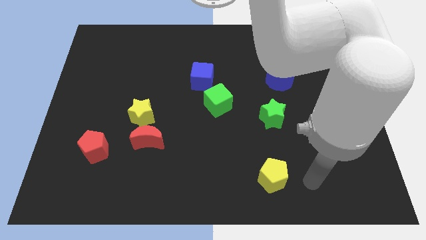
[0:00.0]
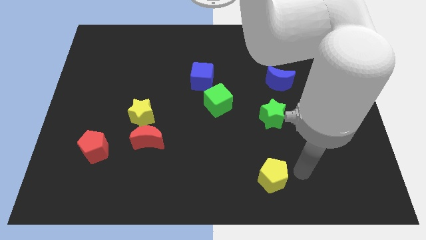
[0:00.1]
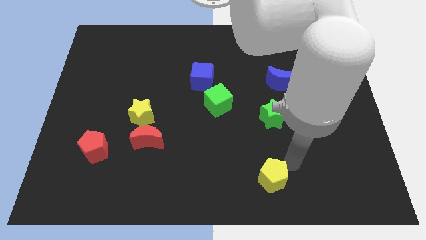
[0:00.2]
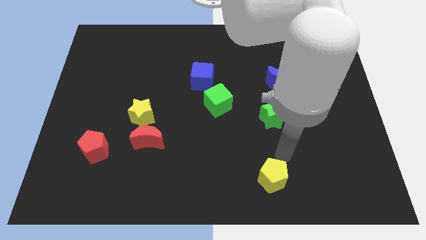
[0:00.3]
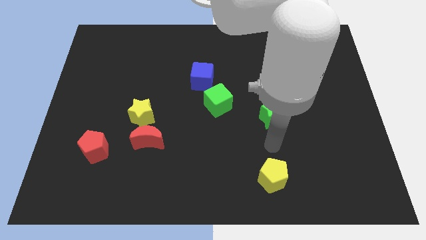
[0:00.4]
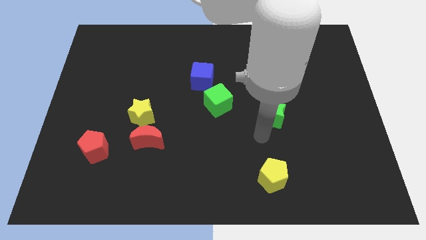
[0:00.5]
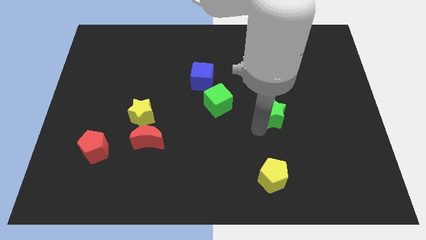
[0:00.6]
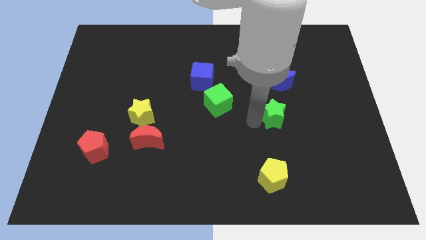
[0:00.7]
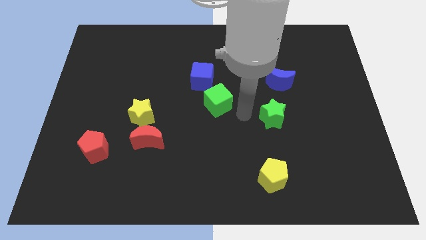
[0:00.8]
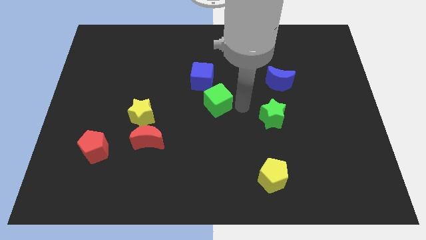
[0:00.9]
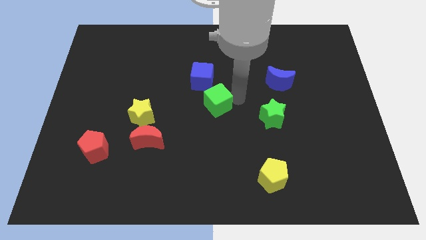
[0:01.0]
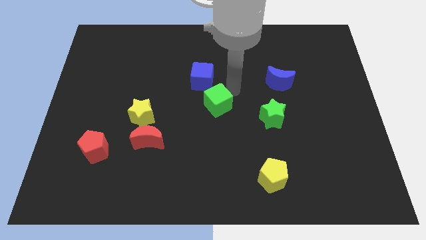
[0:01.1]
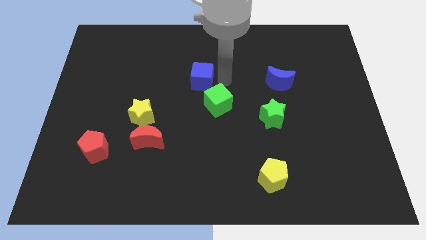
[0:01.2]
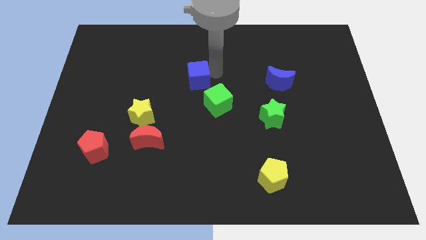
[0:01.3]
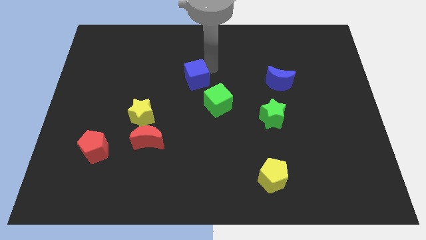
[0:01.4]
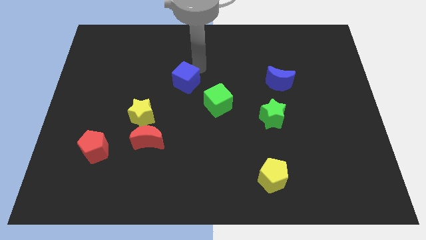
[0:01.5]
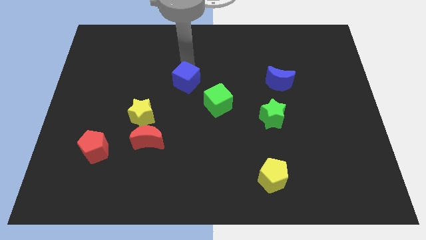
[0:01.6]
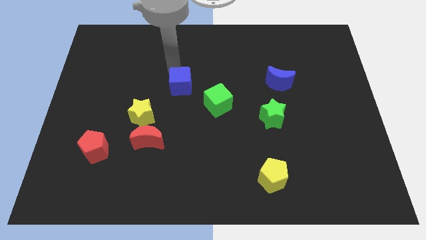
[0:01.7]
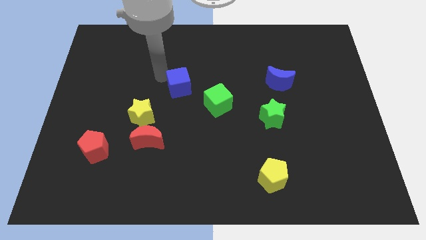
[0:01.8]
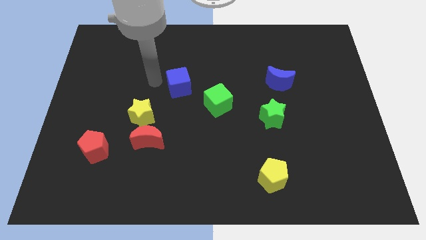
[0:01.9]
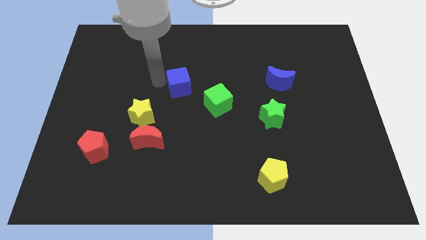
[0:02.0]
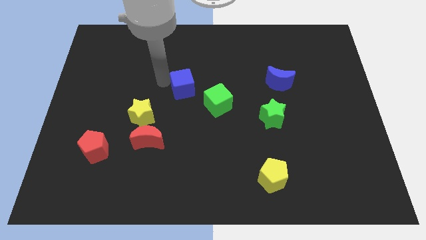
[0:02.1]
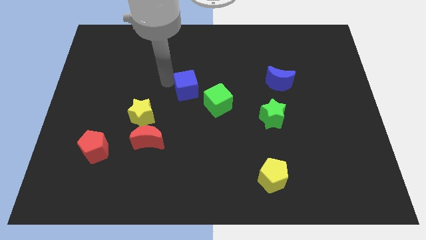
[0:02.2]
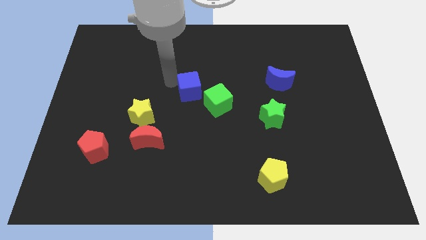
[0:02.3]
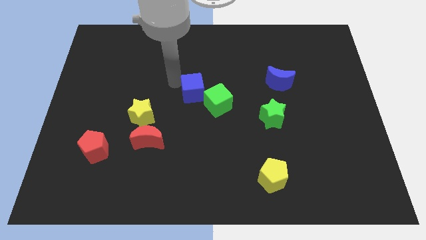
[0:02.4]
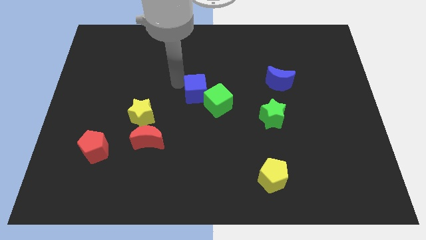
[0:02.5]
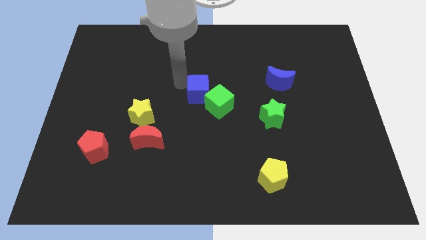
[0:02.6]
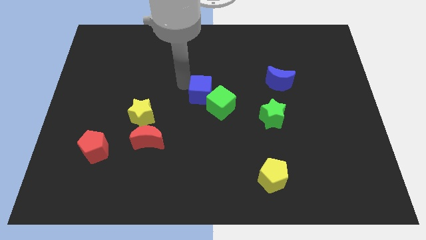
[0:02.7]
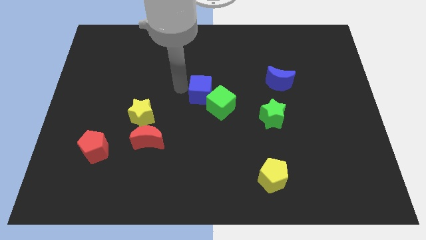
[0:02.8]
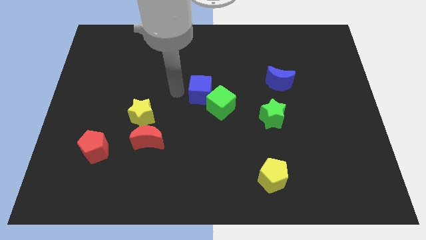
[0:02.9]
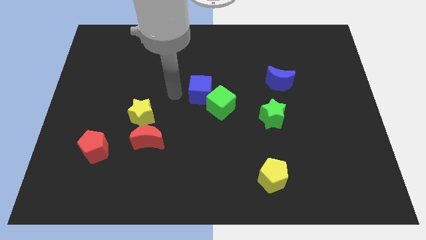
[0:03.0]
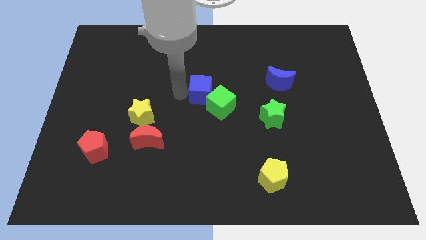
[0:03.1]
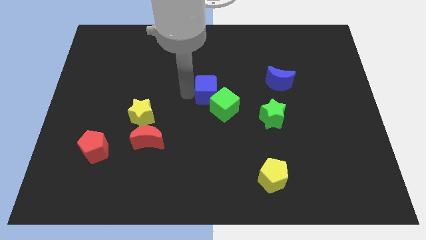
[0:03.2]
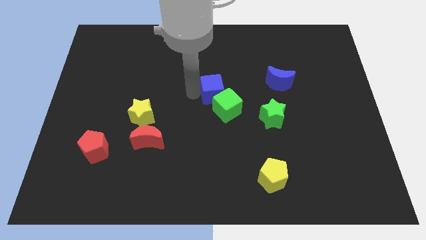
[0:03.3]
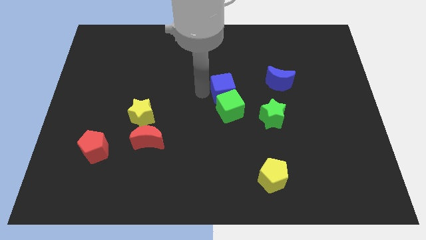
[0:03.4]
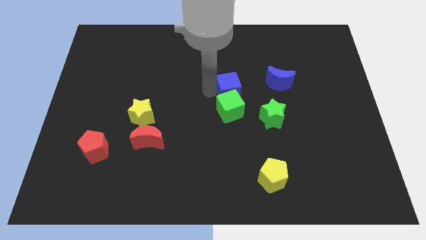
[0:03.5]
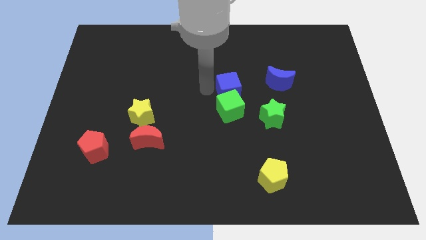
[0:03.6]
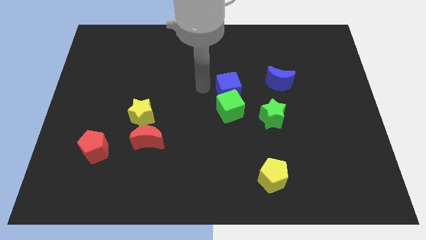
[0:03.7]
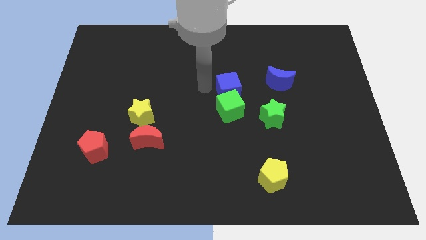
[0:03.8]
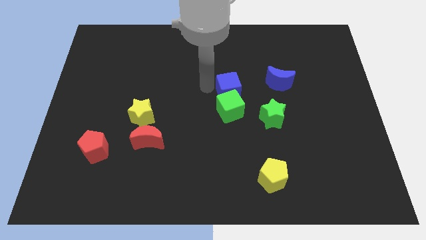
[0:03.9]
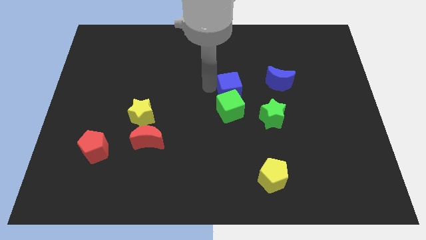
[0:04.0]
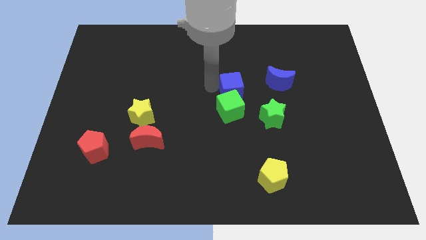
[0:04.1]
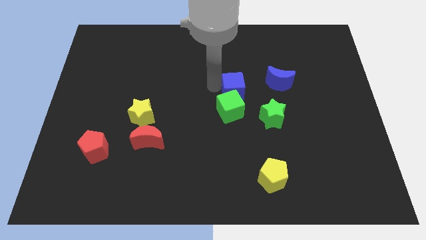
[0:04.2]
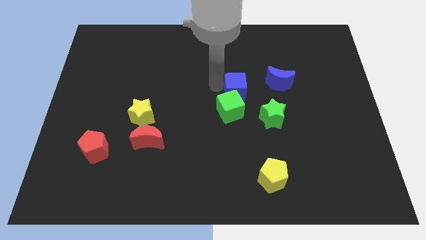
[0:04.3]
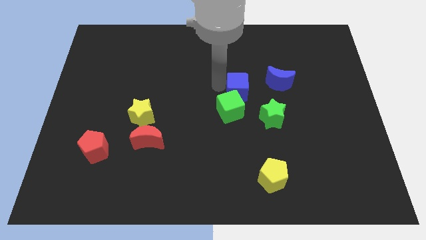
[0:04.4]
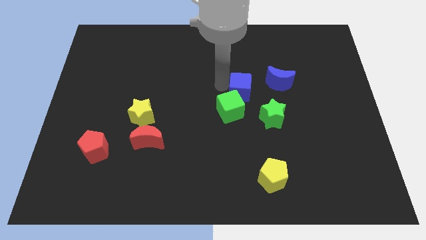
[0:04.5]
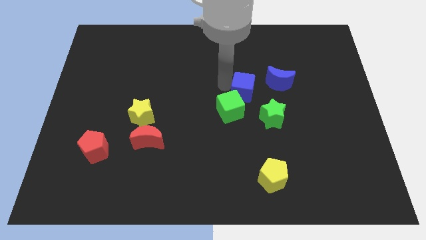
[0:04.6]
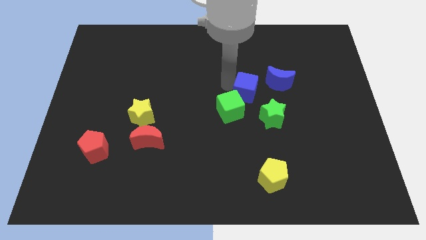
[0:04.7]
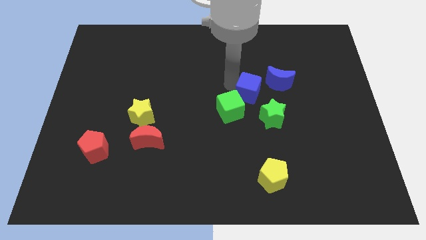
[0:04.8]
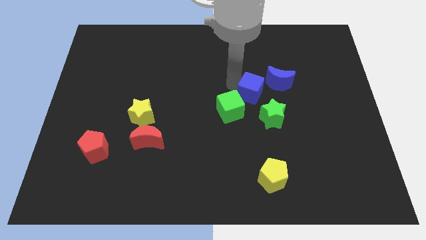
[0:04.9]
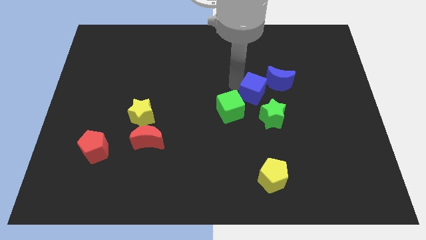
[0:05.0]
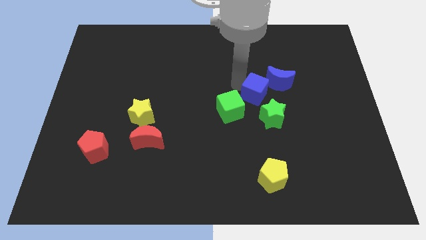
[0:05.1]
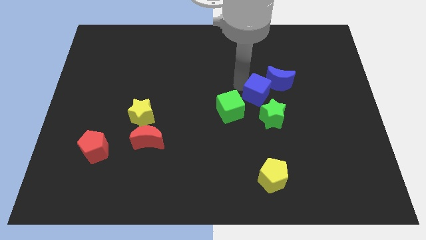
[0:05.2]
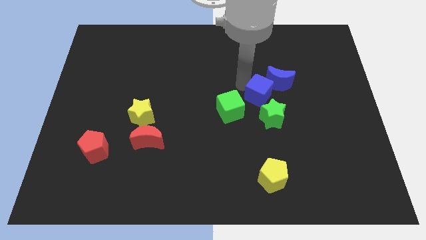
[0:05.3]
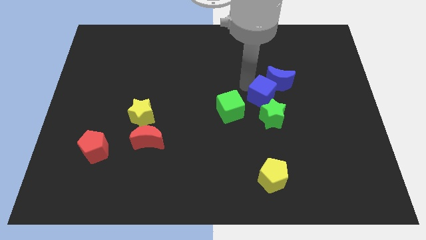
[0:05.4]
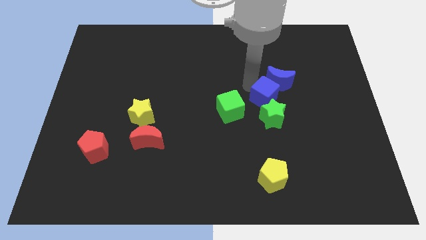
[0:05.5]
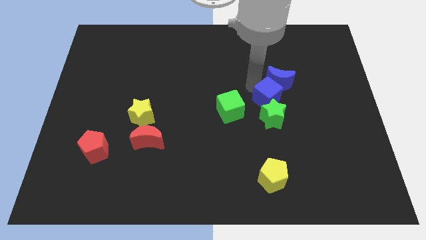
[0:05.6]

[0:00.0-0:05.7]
slide the blue cube next to the green star

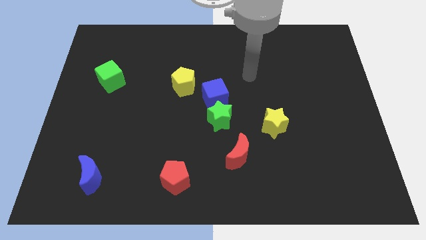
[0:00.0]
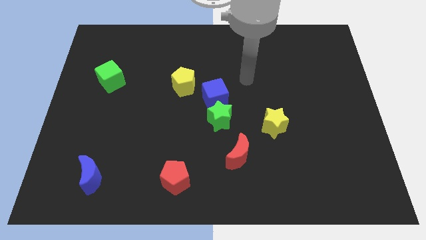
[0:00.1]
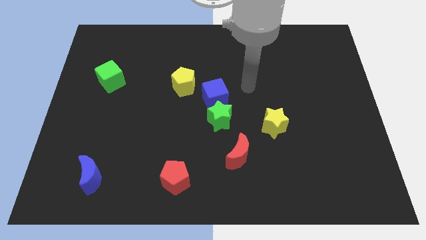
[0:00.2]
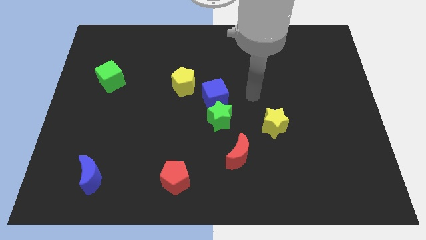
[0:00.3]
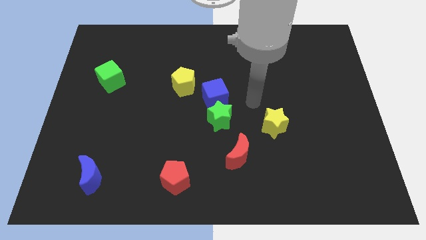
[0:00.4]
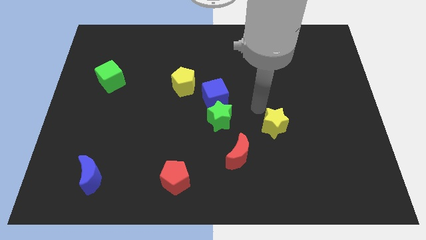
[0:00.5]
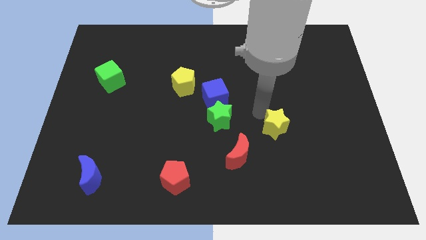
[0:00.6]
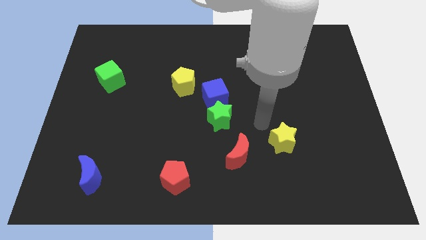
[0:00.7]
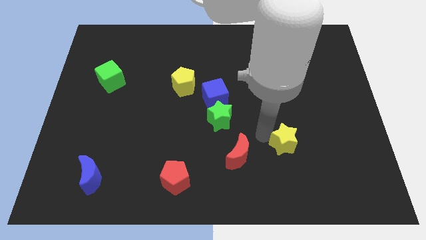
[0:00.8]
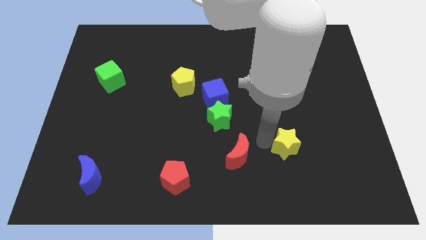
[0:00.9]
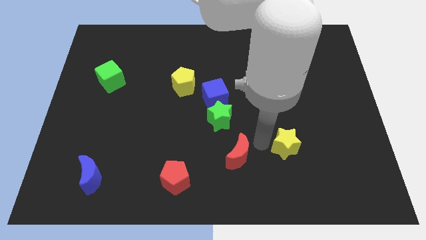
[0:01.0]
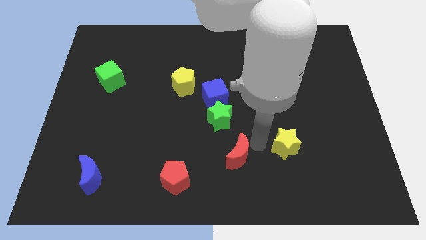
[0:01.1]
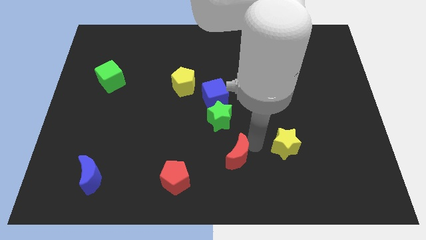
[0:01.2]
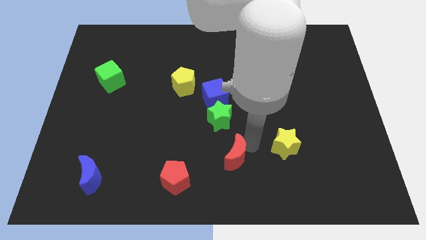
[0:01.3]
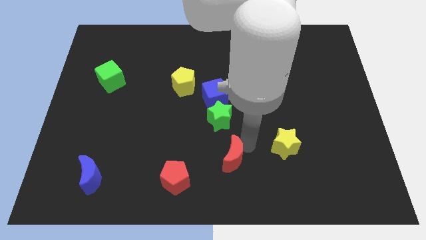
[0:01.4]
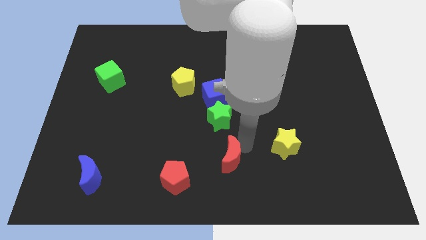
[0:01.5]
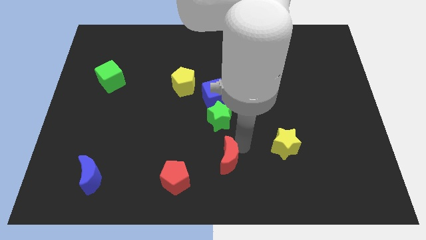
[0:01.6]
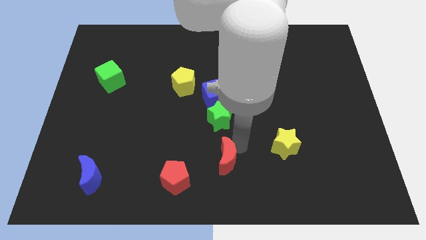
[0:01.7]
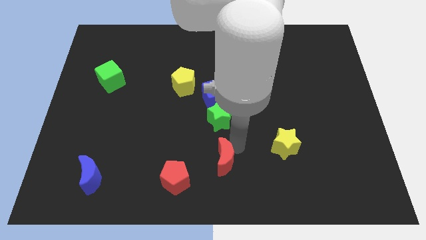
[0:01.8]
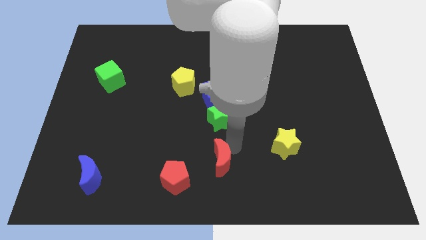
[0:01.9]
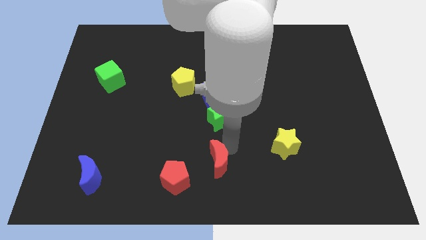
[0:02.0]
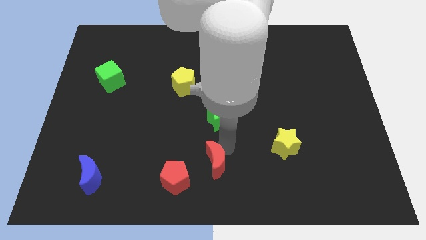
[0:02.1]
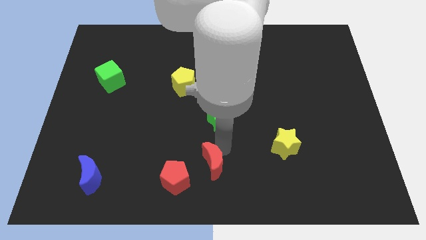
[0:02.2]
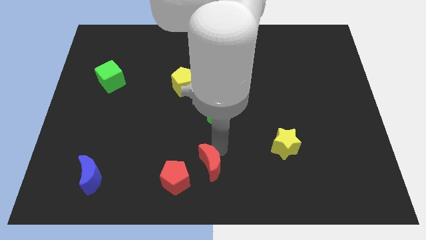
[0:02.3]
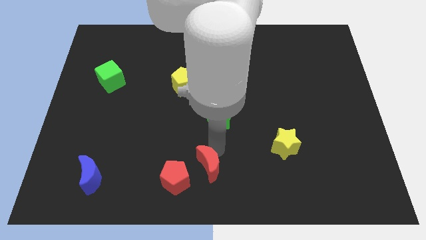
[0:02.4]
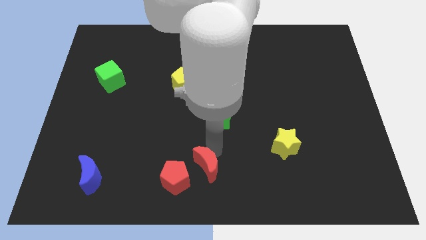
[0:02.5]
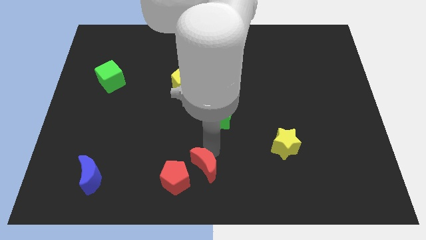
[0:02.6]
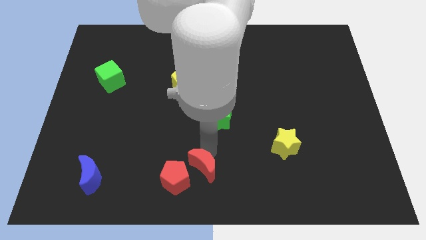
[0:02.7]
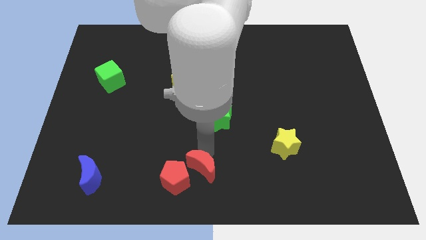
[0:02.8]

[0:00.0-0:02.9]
move the red moon to the red pentagon
